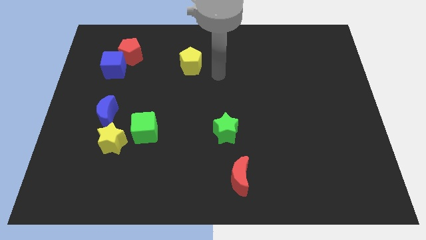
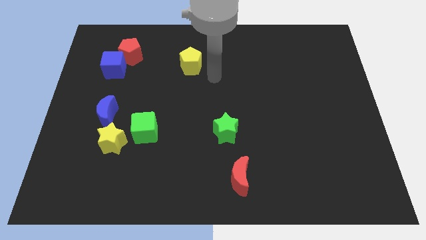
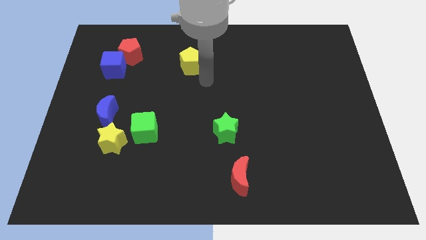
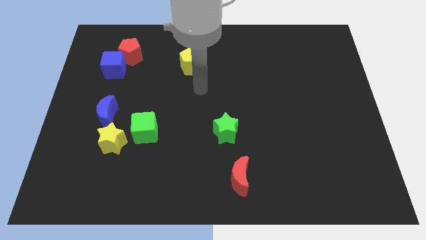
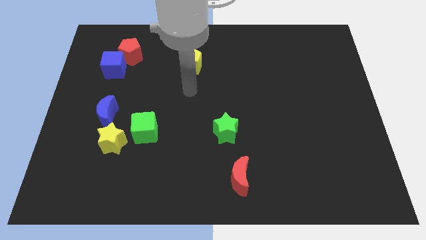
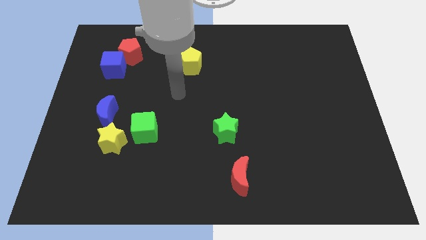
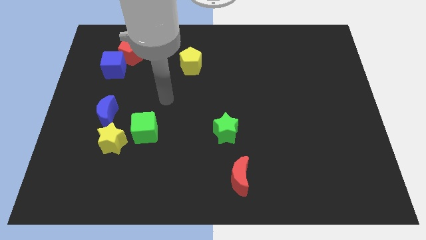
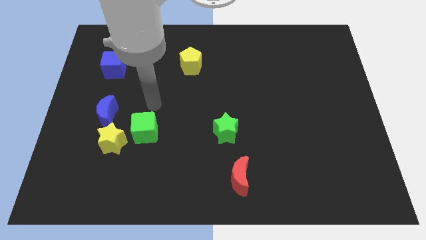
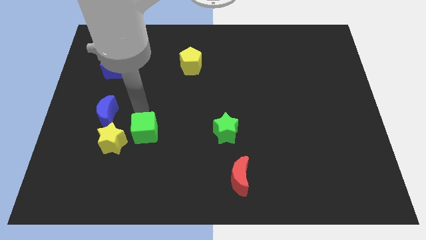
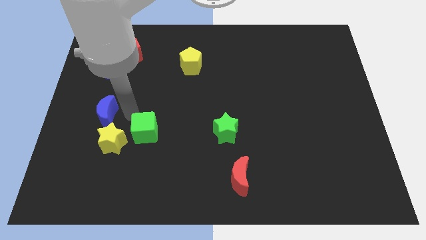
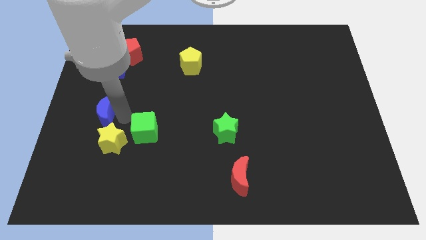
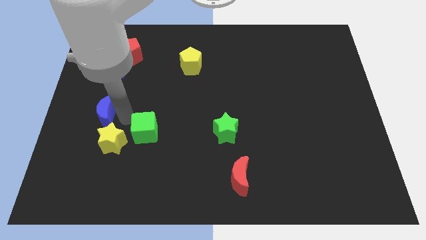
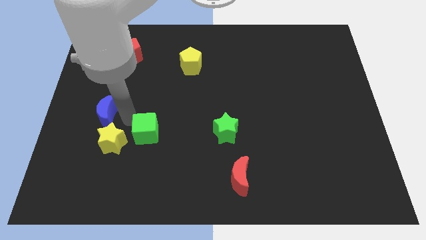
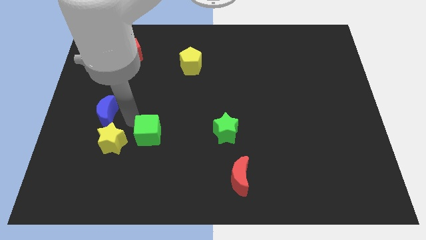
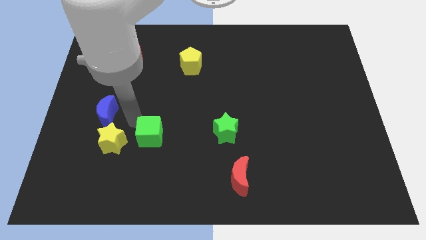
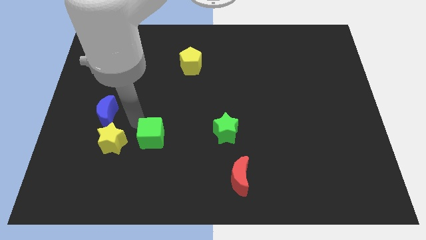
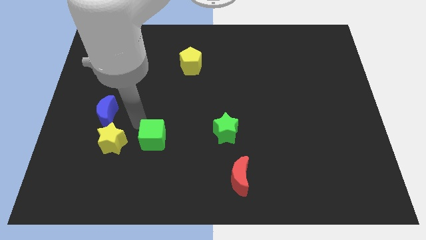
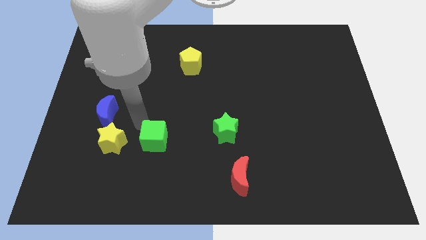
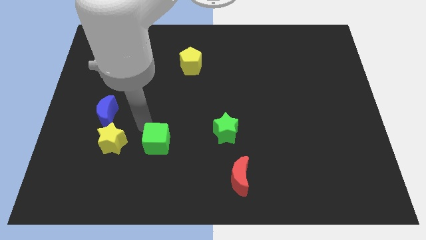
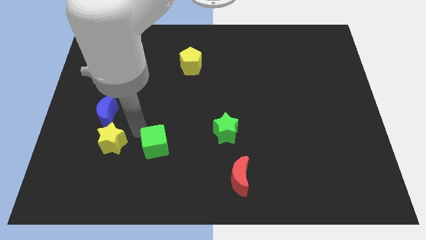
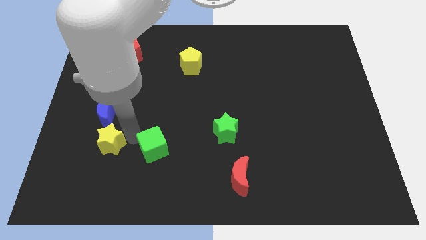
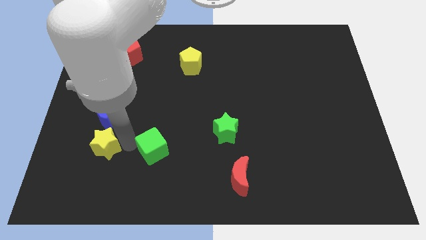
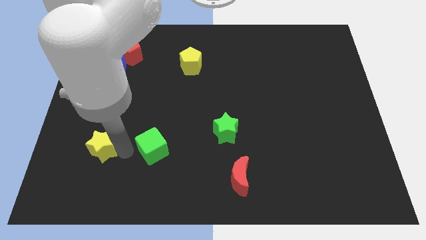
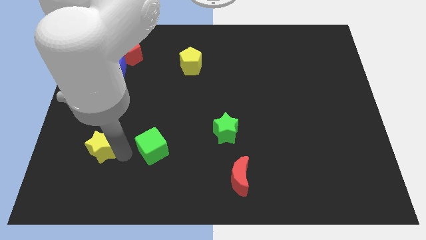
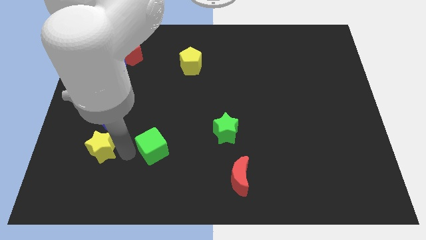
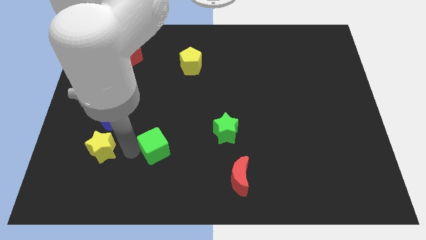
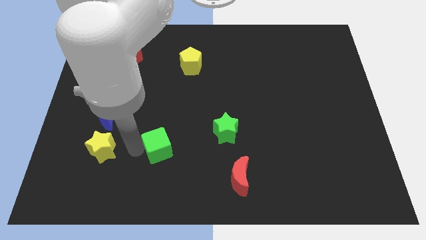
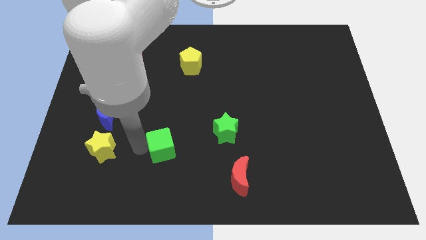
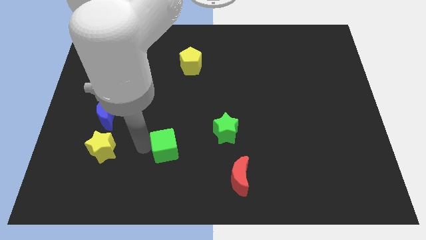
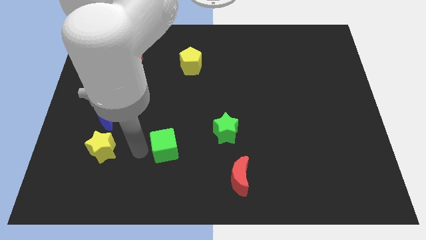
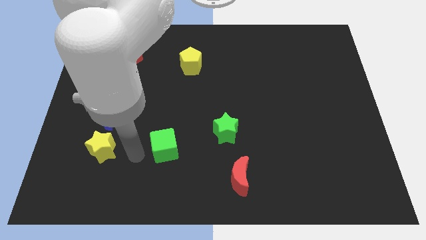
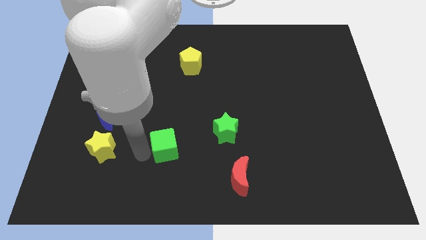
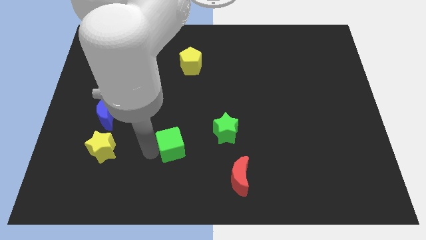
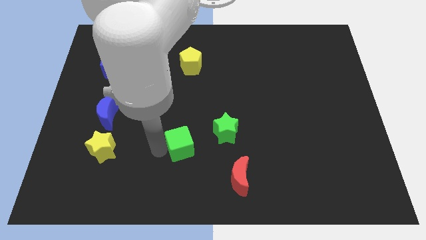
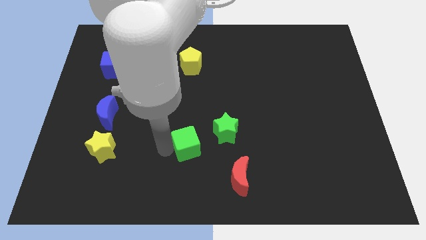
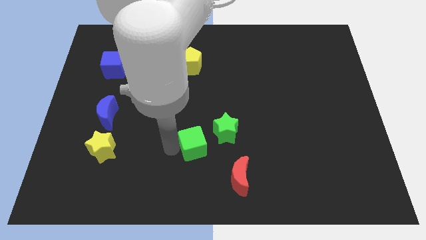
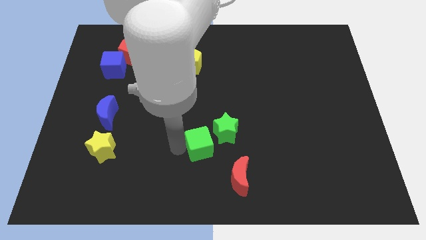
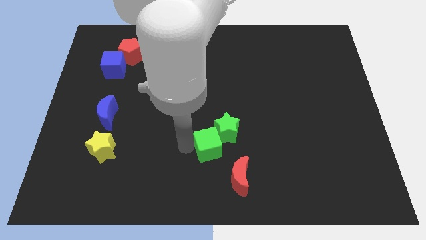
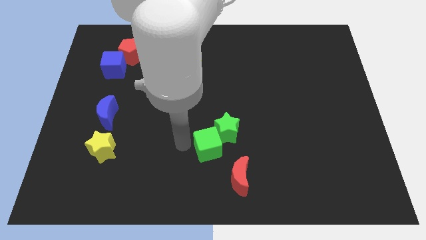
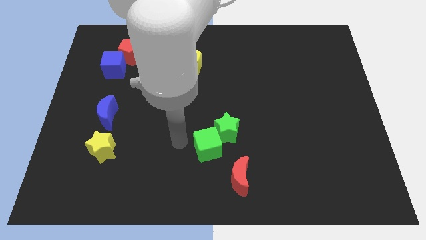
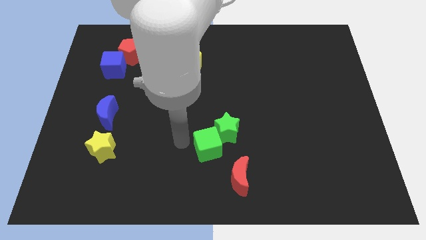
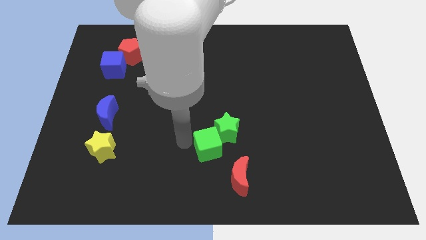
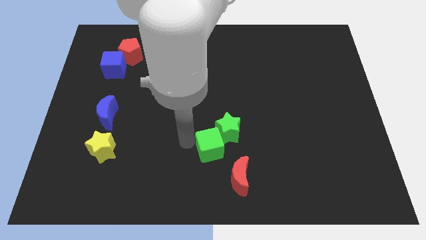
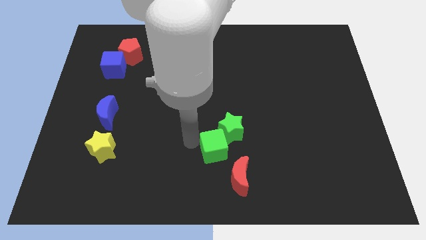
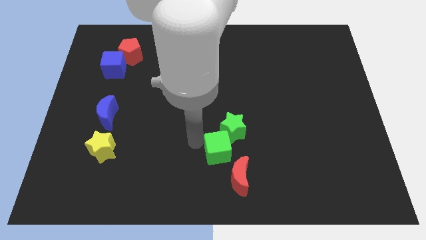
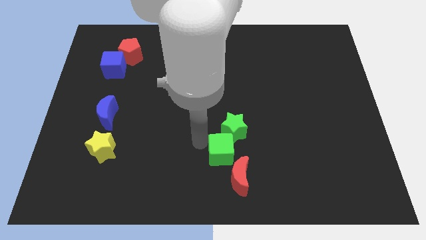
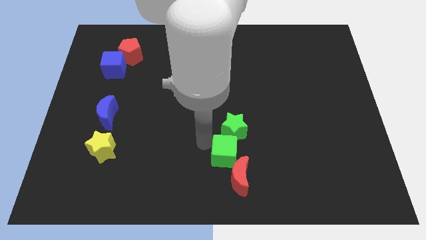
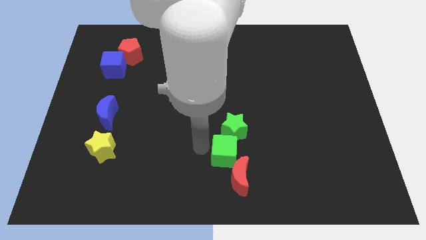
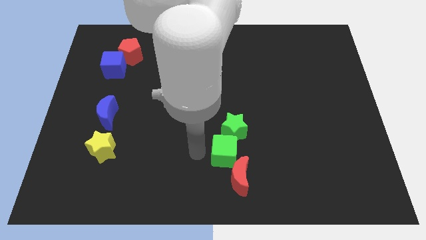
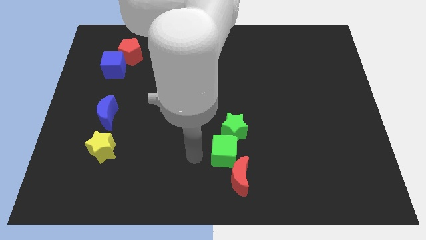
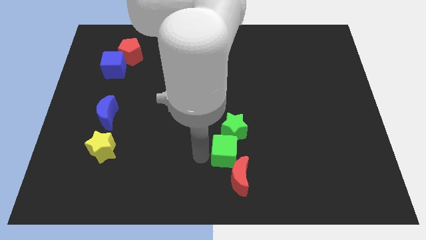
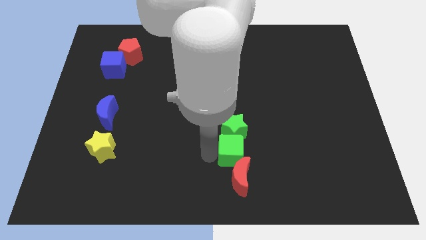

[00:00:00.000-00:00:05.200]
put the green cube to the bottom right of the green star

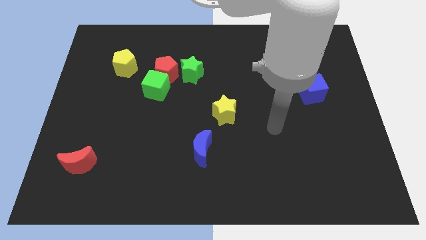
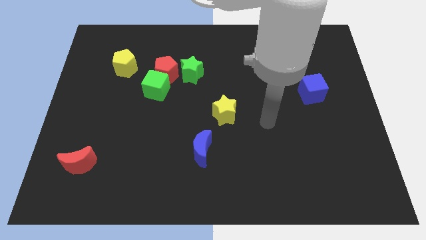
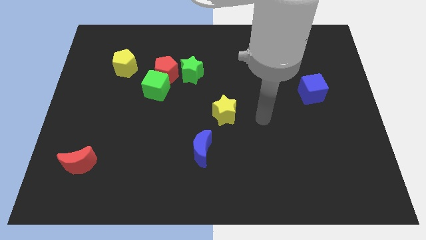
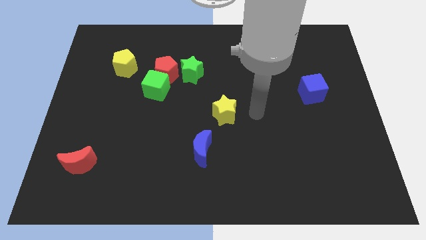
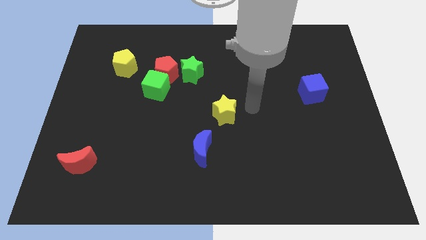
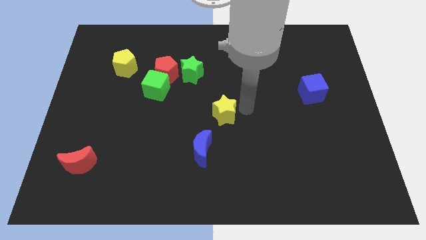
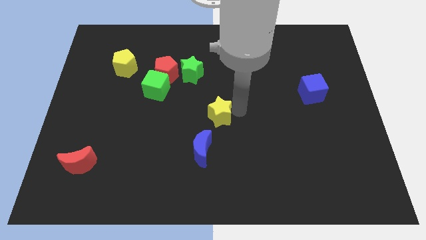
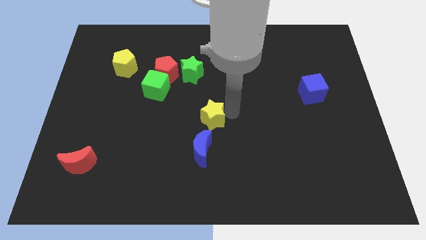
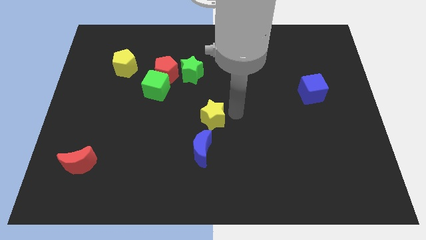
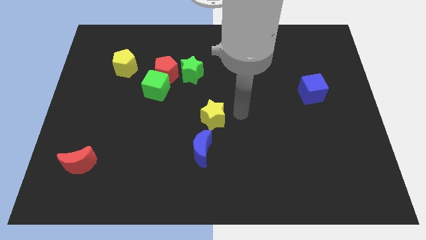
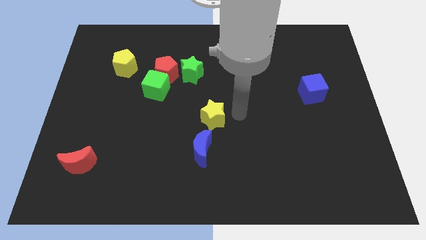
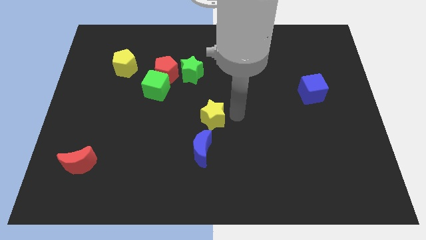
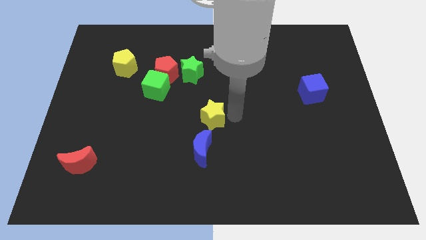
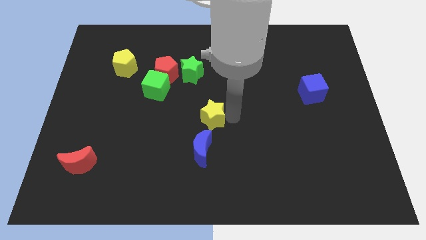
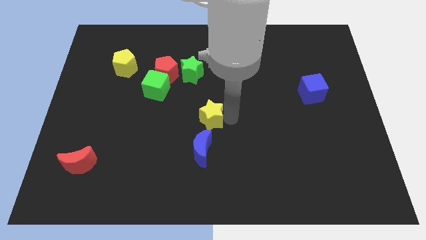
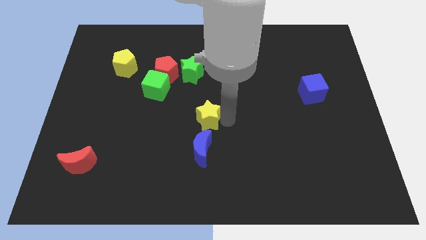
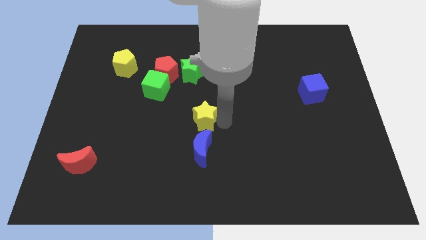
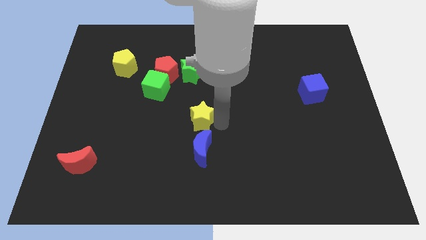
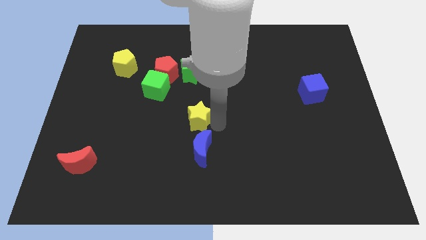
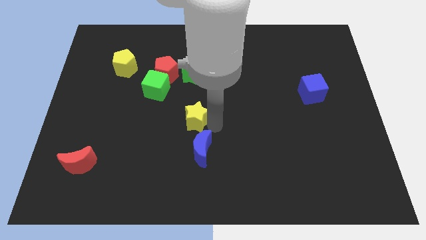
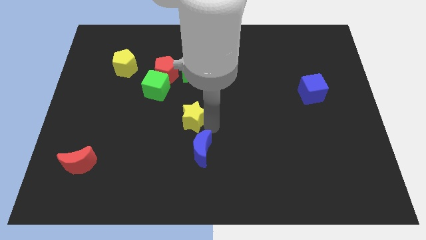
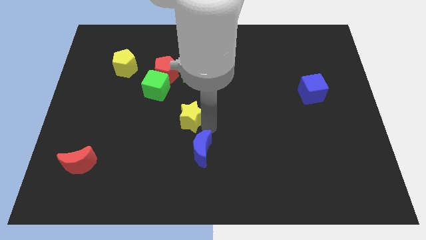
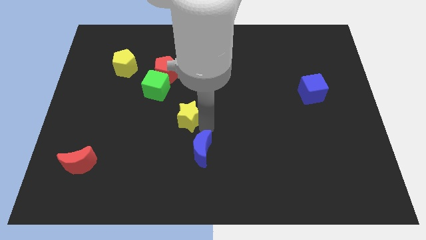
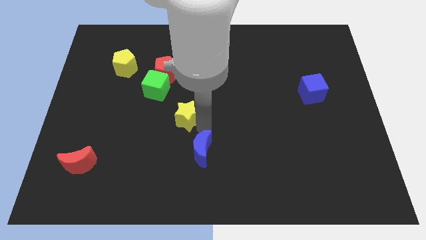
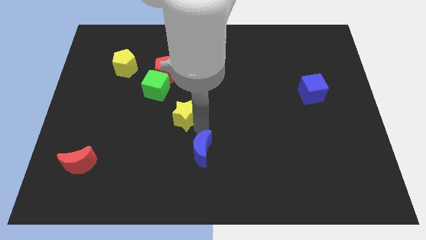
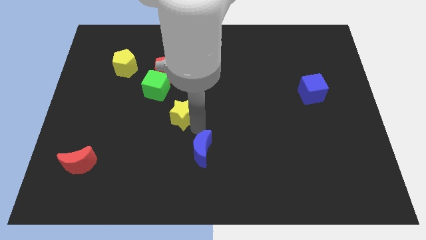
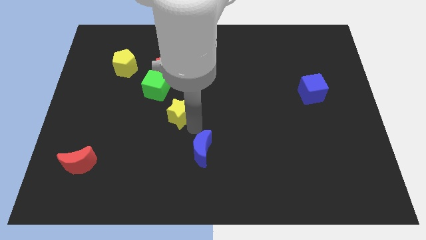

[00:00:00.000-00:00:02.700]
push the yellow star to the bottom of the red pentagon

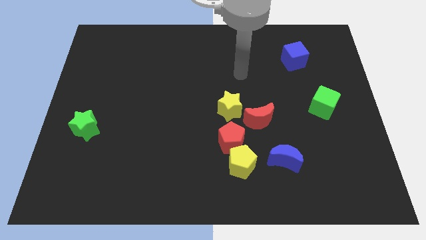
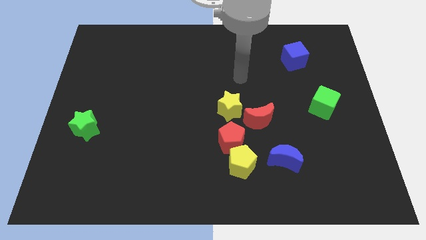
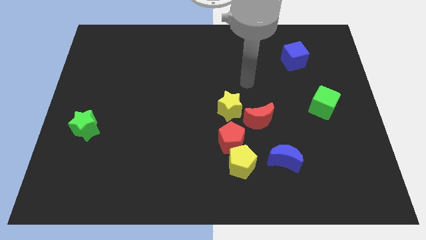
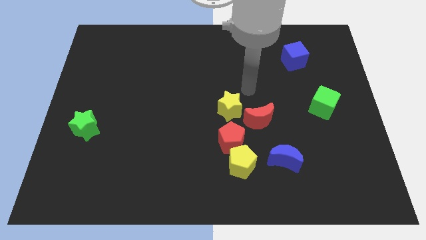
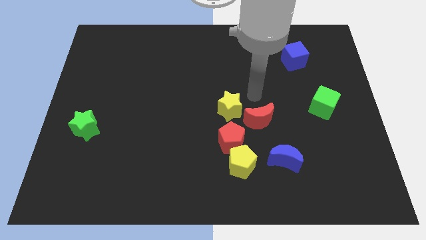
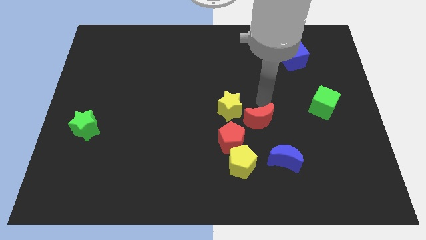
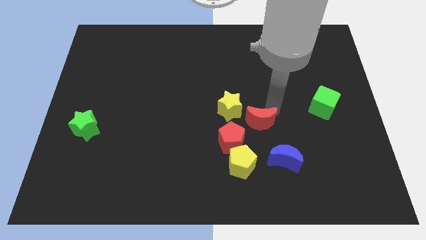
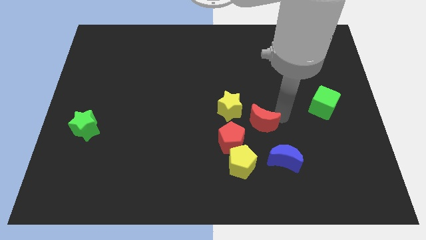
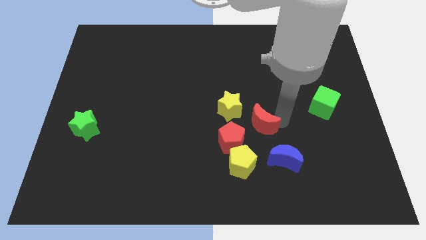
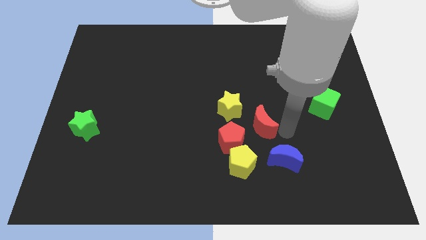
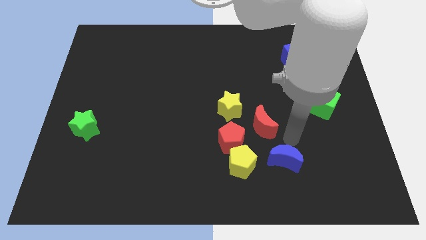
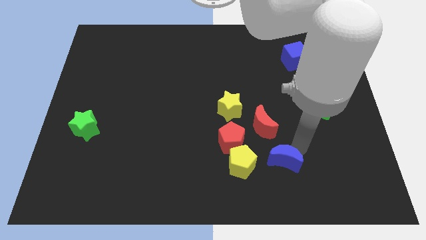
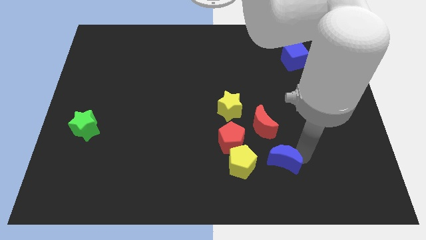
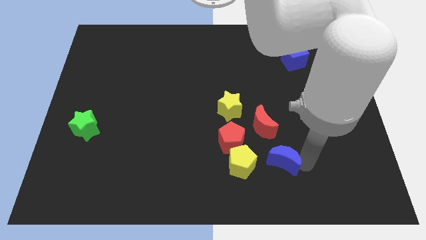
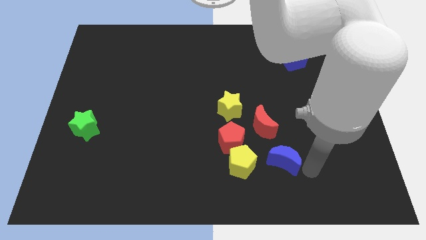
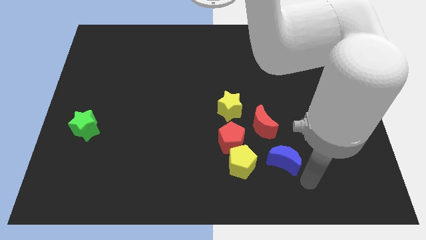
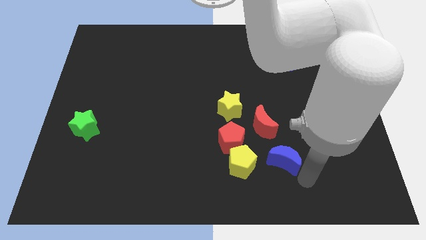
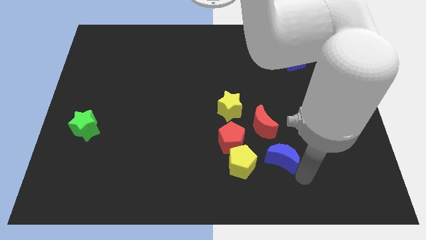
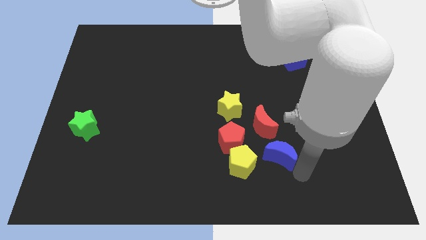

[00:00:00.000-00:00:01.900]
put the blue moon to the top right of the yellow pentagon
